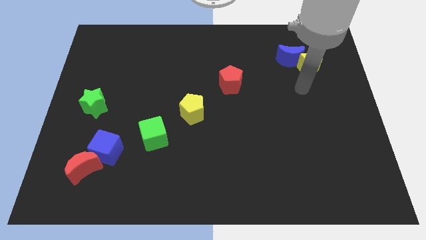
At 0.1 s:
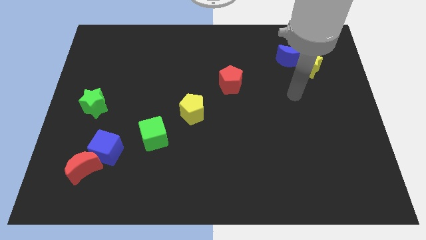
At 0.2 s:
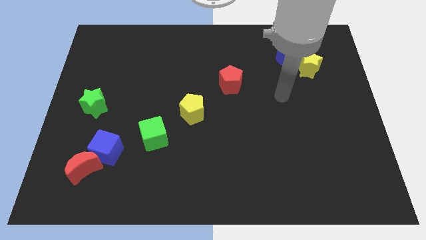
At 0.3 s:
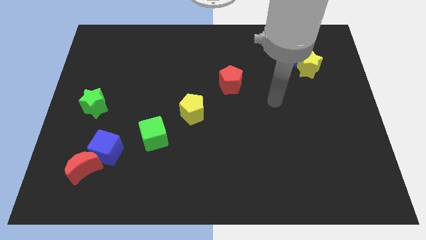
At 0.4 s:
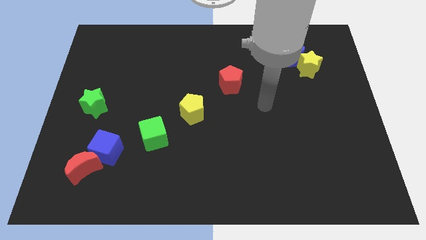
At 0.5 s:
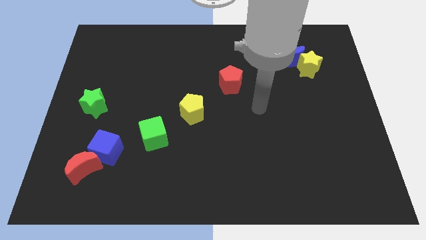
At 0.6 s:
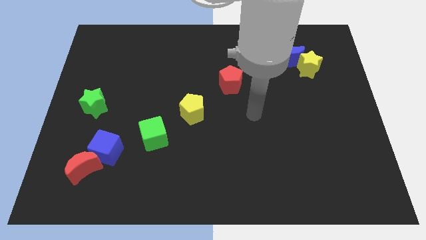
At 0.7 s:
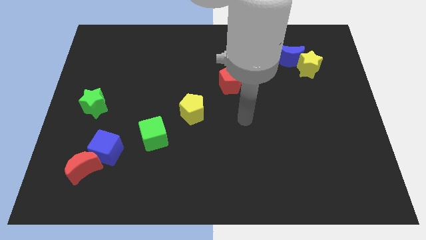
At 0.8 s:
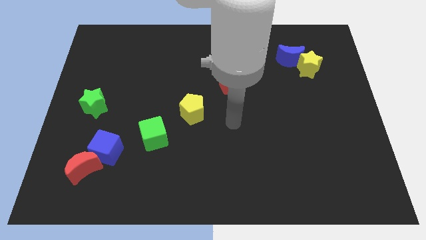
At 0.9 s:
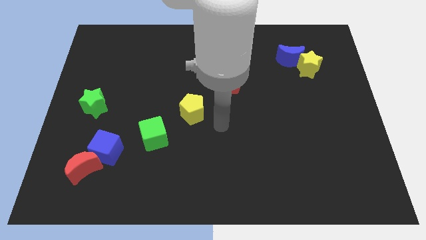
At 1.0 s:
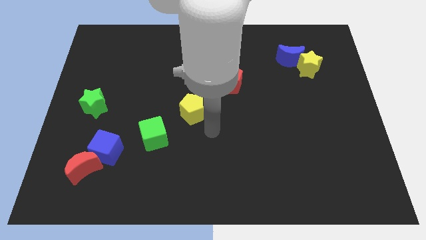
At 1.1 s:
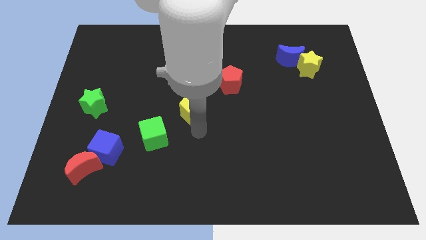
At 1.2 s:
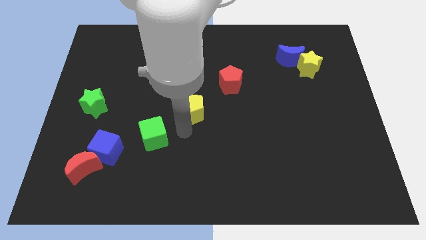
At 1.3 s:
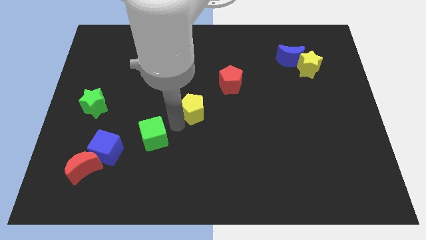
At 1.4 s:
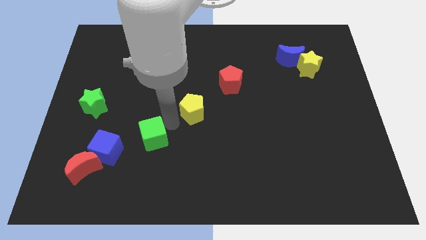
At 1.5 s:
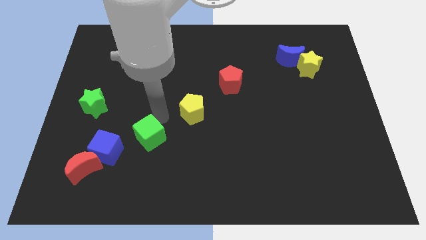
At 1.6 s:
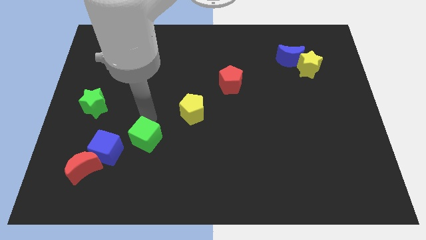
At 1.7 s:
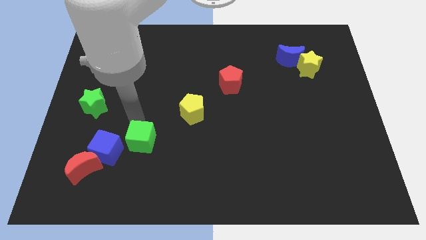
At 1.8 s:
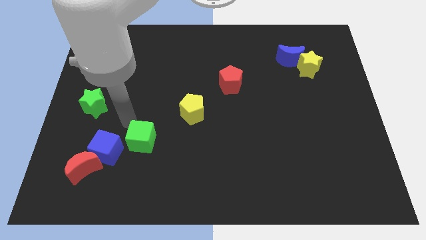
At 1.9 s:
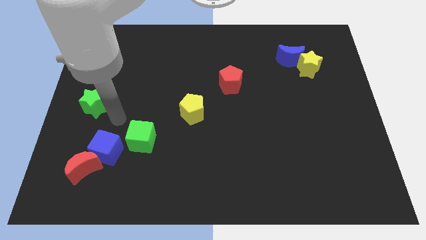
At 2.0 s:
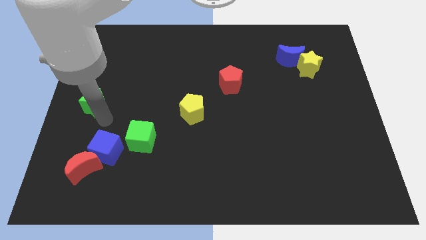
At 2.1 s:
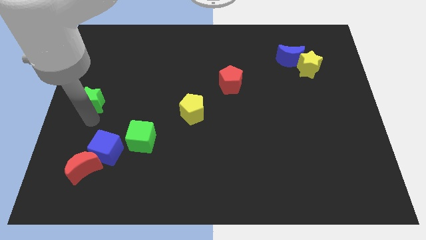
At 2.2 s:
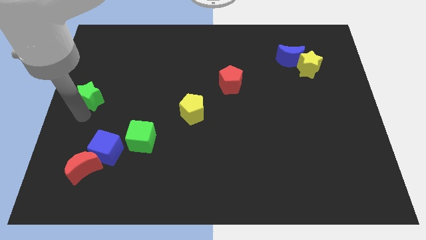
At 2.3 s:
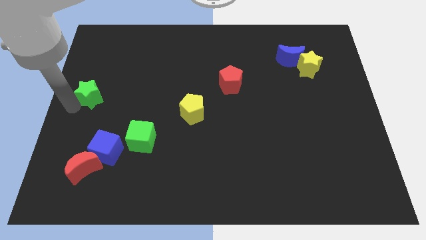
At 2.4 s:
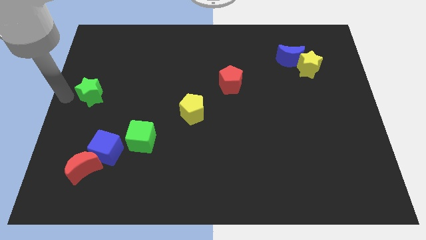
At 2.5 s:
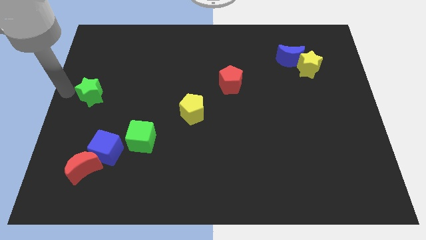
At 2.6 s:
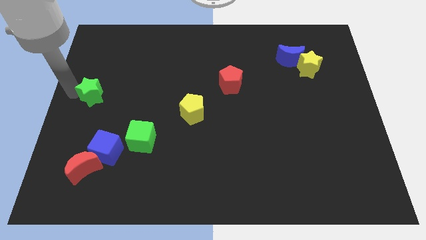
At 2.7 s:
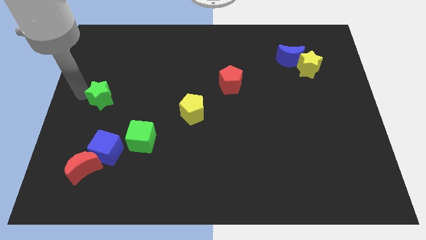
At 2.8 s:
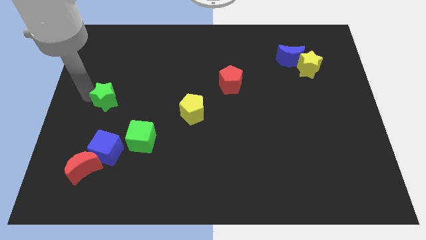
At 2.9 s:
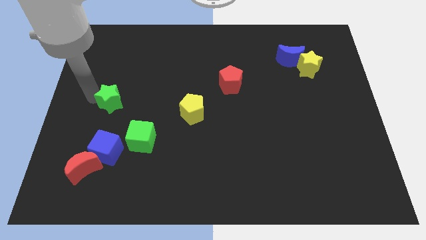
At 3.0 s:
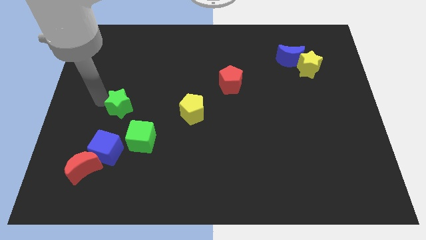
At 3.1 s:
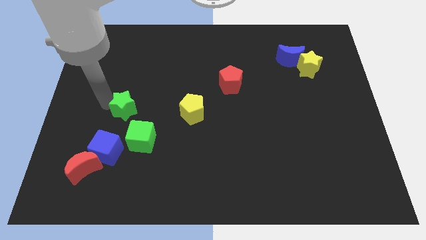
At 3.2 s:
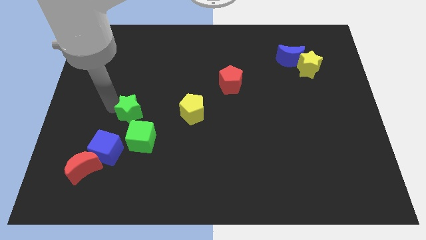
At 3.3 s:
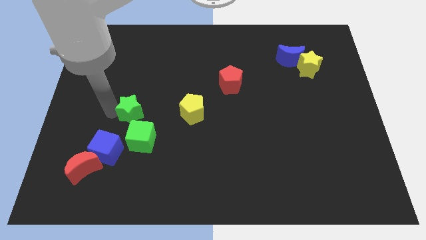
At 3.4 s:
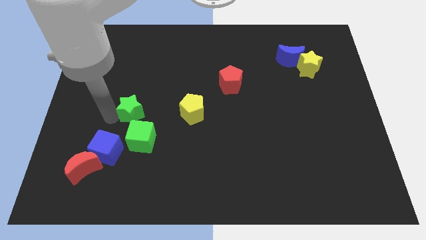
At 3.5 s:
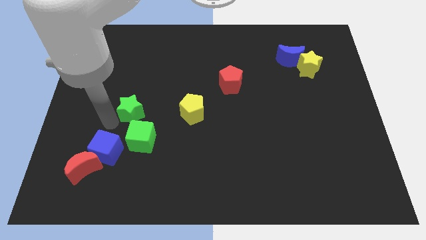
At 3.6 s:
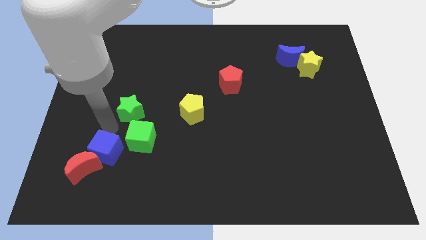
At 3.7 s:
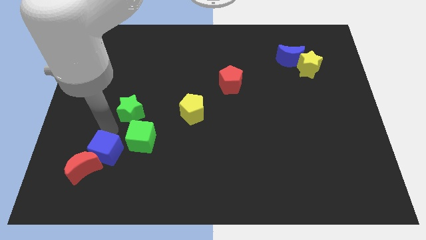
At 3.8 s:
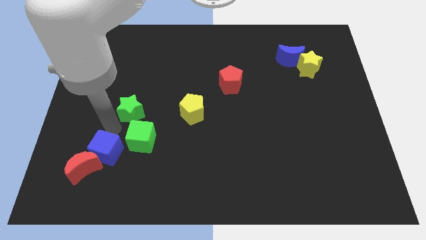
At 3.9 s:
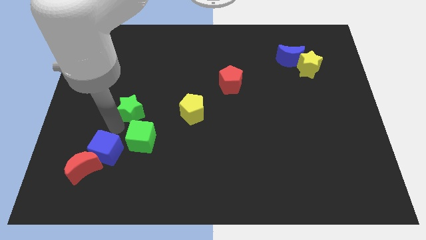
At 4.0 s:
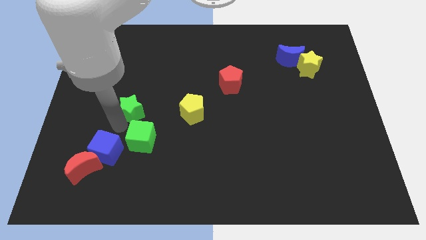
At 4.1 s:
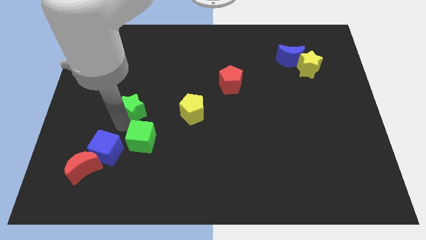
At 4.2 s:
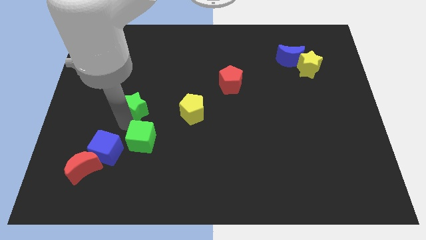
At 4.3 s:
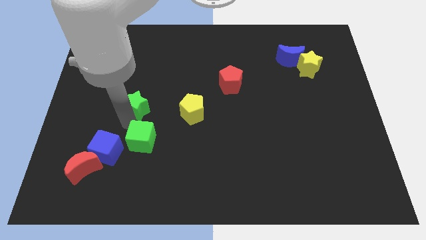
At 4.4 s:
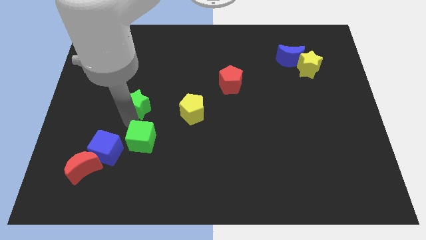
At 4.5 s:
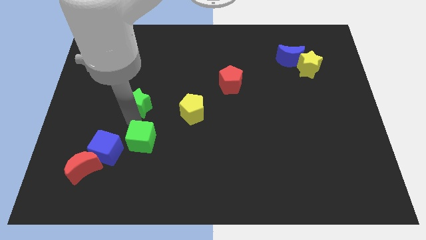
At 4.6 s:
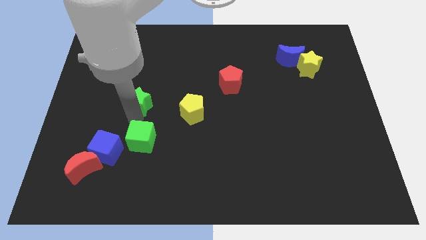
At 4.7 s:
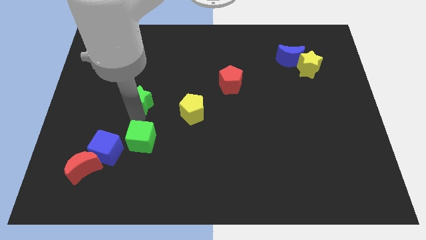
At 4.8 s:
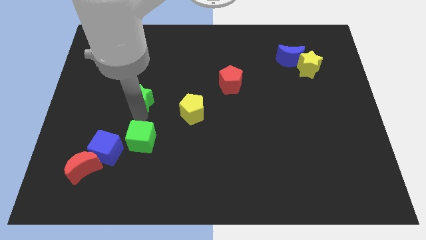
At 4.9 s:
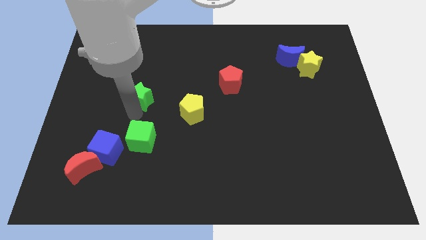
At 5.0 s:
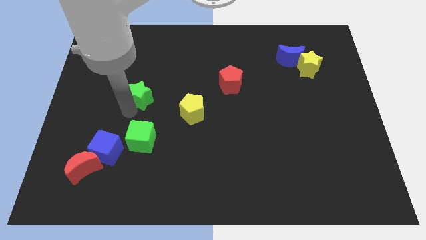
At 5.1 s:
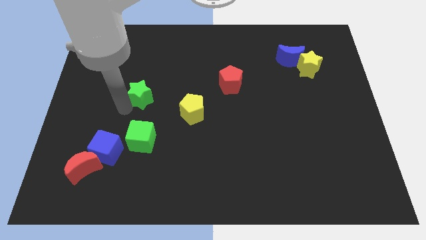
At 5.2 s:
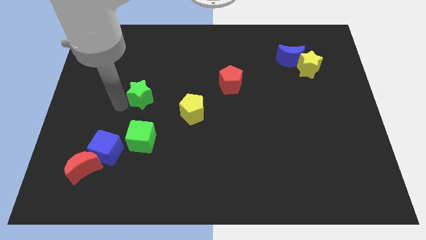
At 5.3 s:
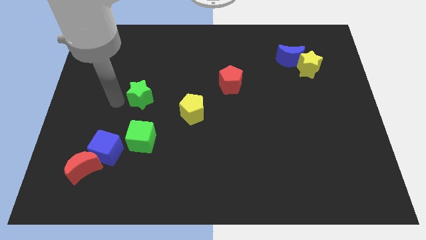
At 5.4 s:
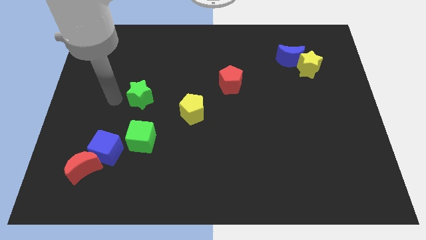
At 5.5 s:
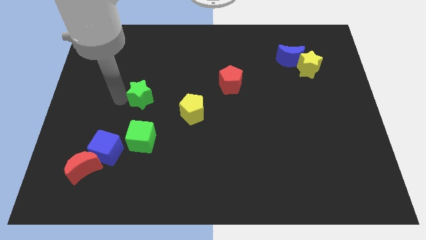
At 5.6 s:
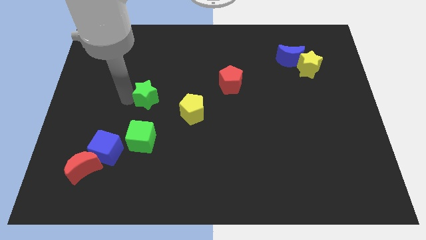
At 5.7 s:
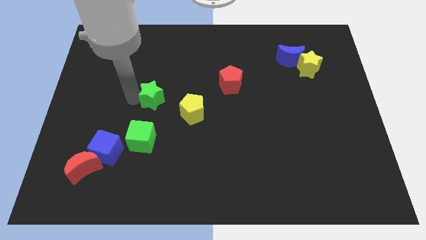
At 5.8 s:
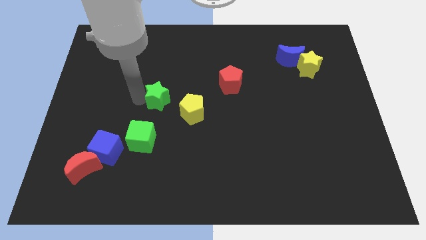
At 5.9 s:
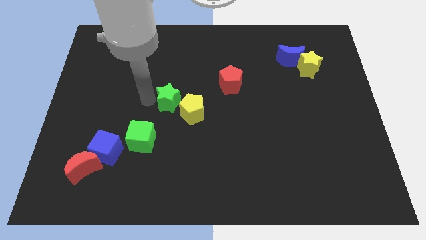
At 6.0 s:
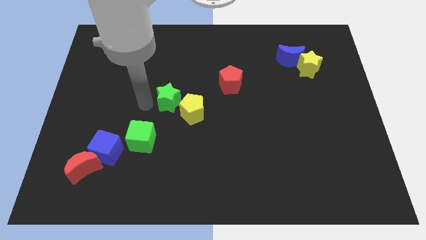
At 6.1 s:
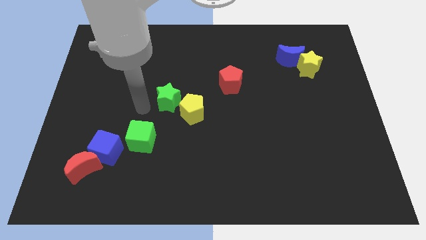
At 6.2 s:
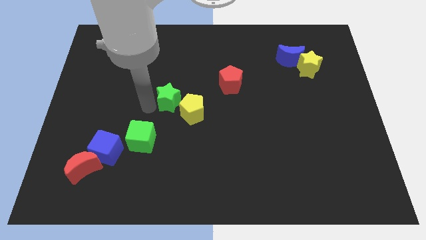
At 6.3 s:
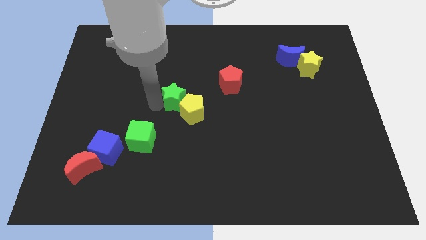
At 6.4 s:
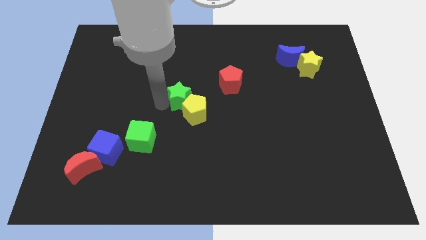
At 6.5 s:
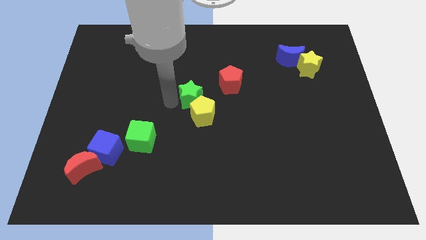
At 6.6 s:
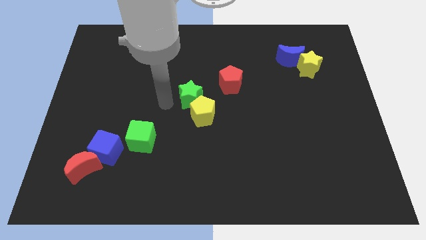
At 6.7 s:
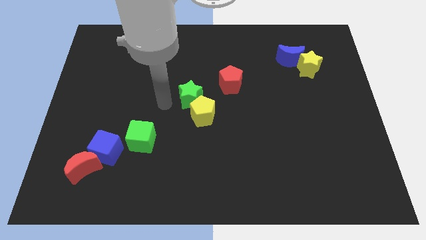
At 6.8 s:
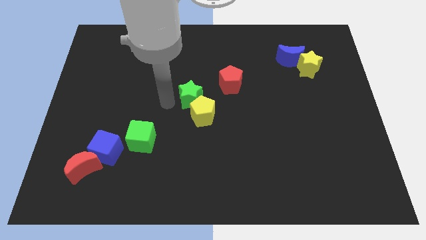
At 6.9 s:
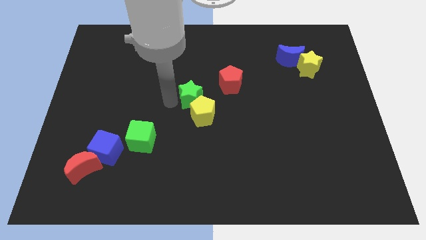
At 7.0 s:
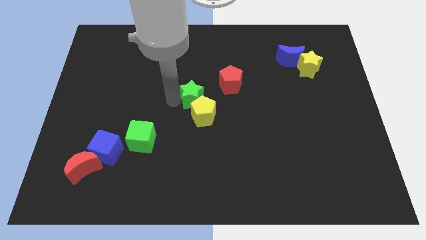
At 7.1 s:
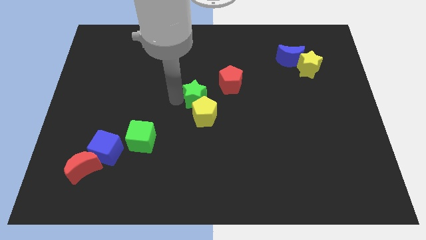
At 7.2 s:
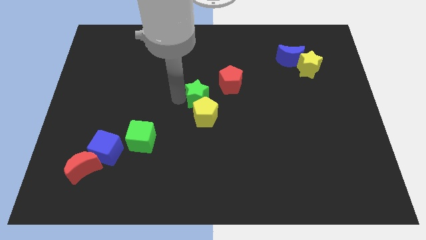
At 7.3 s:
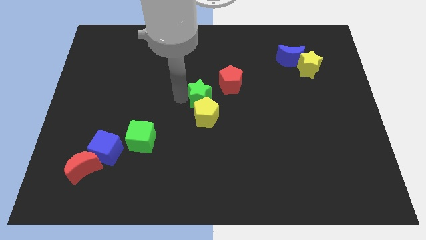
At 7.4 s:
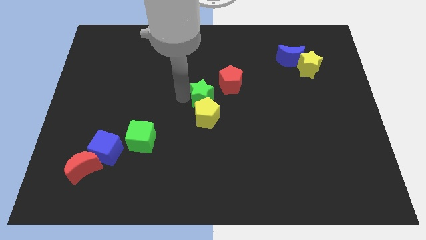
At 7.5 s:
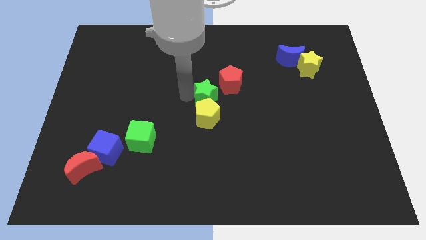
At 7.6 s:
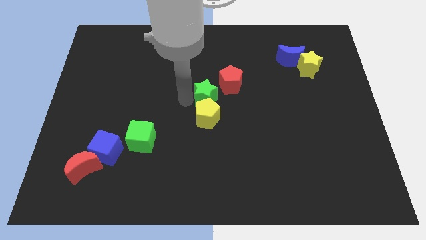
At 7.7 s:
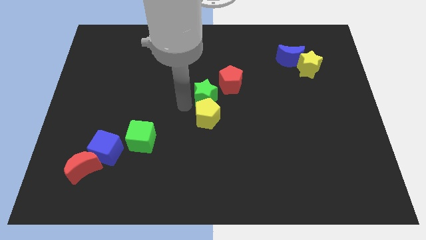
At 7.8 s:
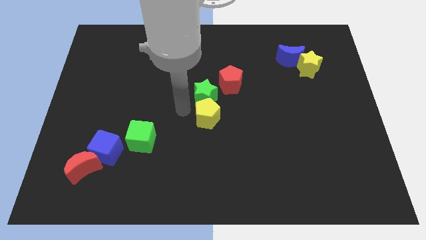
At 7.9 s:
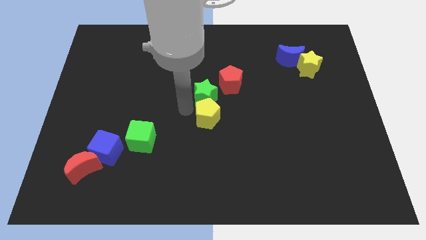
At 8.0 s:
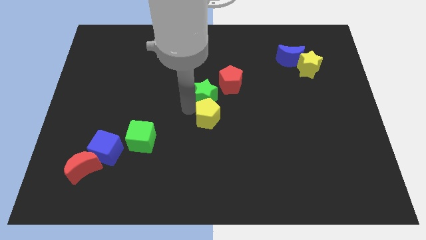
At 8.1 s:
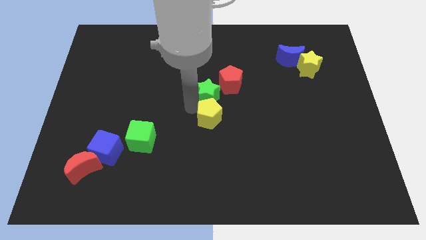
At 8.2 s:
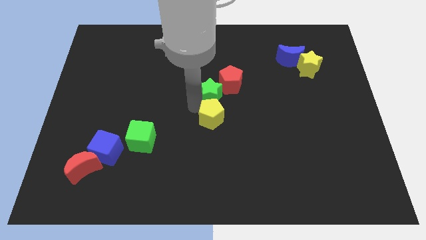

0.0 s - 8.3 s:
move the green star to the red pentagon
